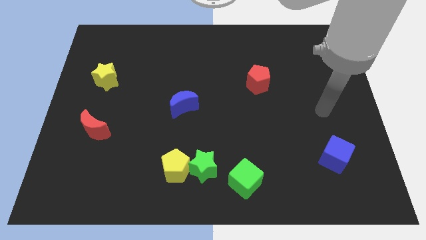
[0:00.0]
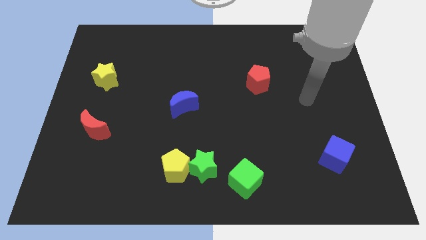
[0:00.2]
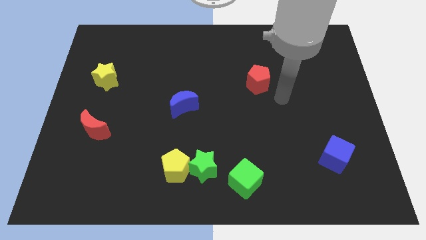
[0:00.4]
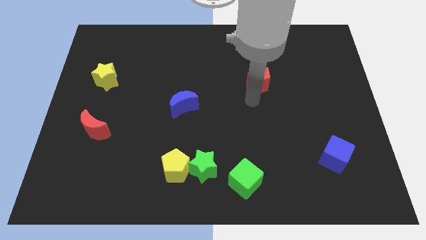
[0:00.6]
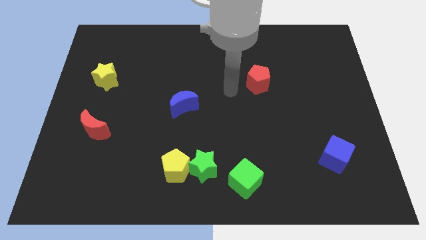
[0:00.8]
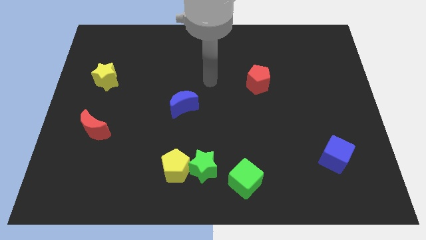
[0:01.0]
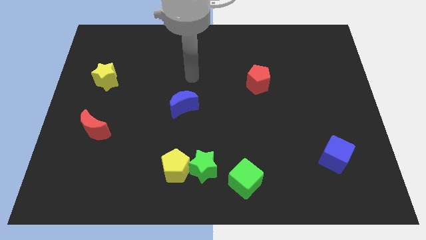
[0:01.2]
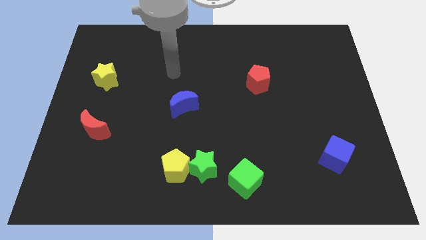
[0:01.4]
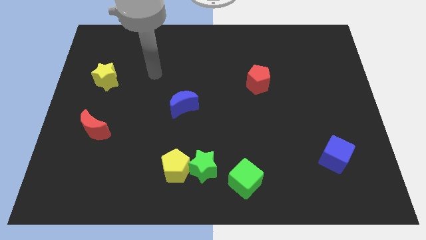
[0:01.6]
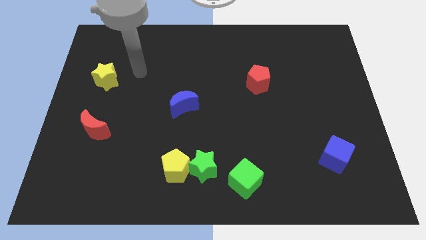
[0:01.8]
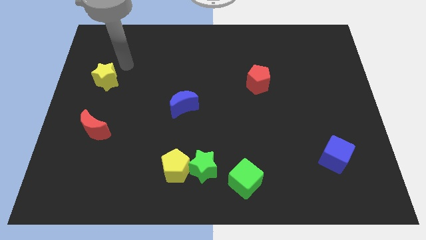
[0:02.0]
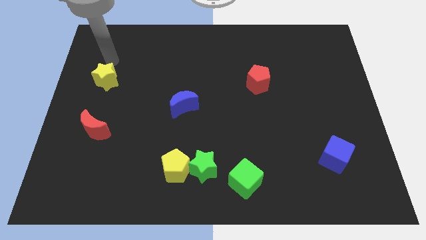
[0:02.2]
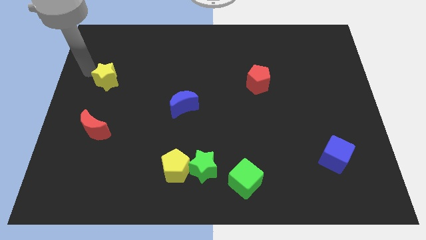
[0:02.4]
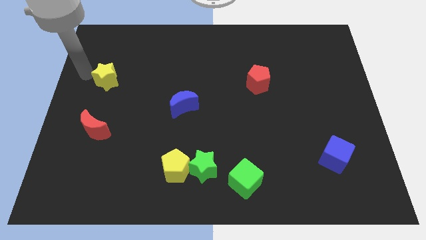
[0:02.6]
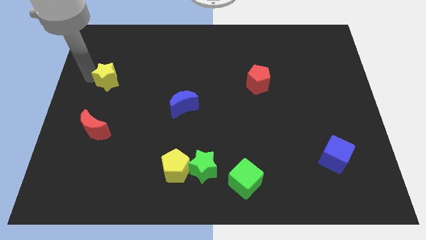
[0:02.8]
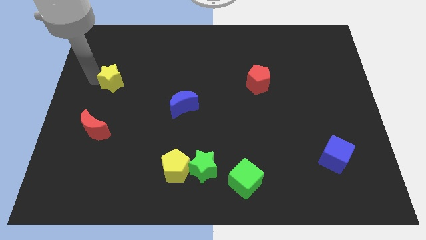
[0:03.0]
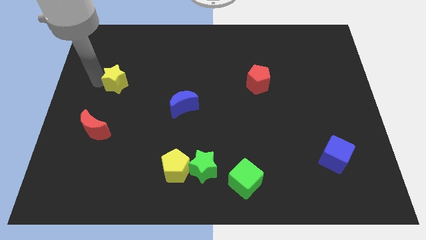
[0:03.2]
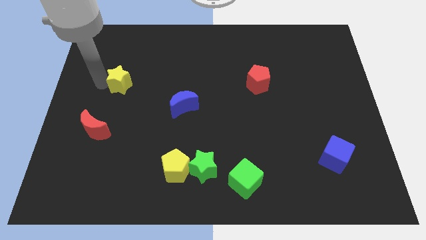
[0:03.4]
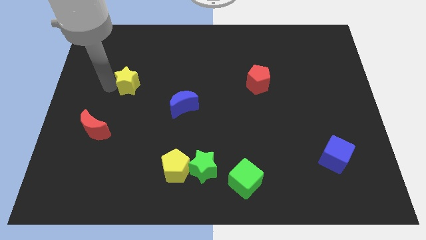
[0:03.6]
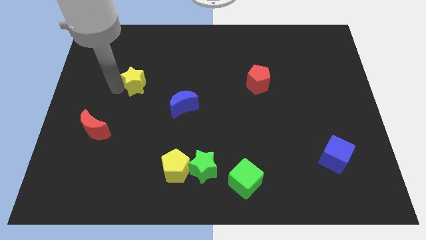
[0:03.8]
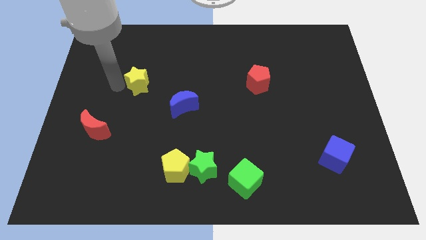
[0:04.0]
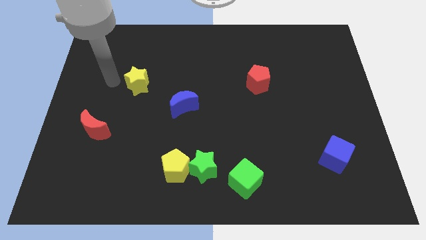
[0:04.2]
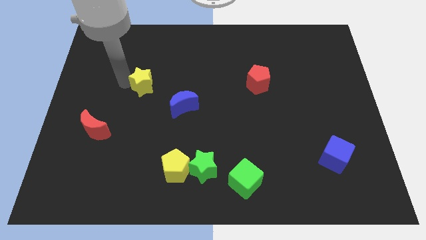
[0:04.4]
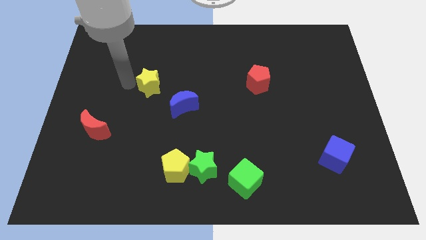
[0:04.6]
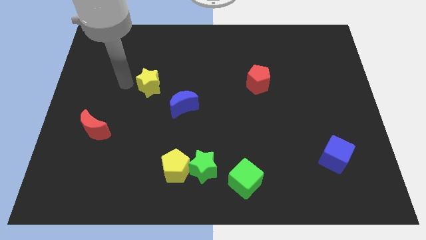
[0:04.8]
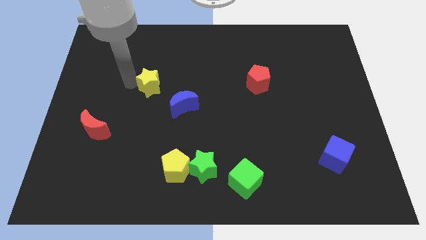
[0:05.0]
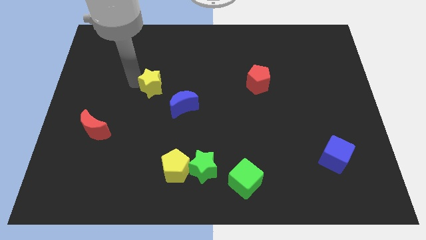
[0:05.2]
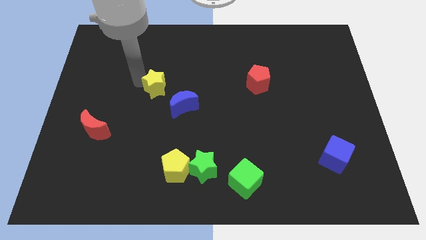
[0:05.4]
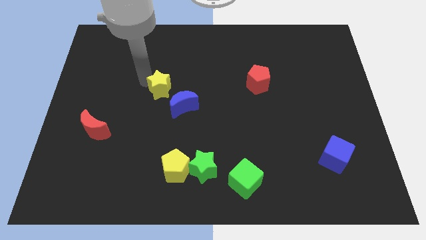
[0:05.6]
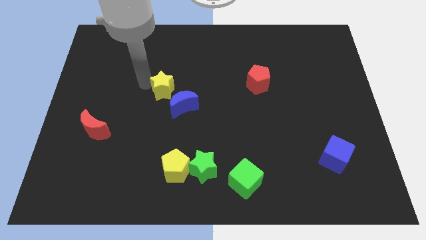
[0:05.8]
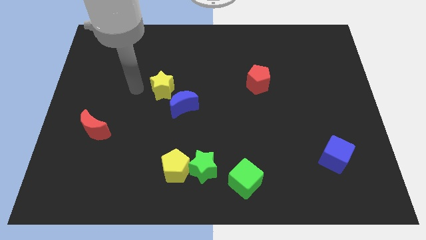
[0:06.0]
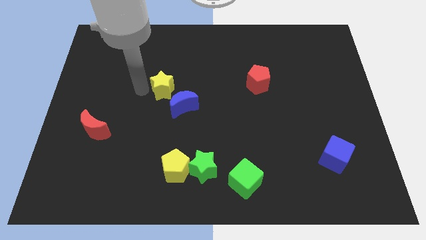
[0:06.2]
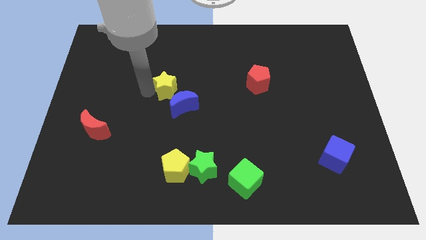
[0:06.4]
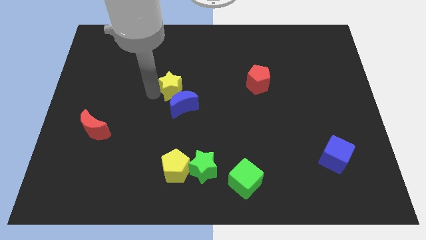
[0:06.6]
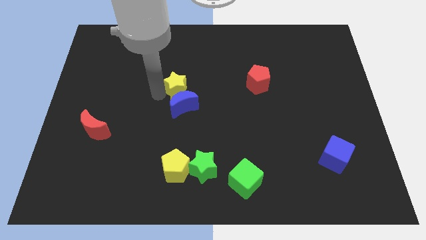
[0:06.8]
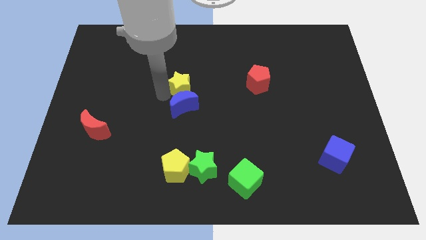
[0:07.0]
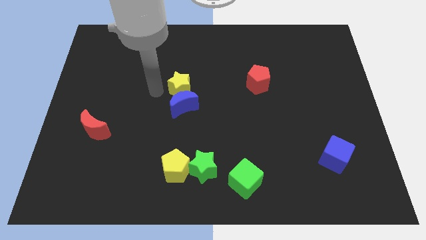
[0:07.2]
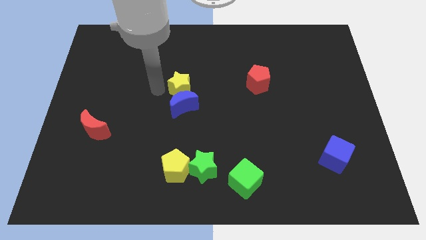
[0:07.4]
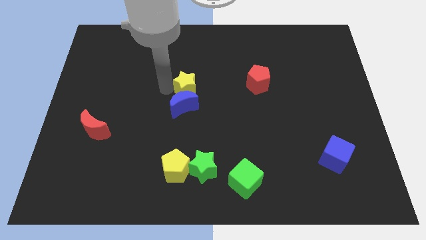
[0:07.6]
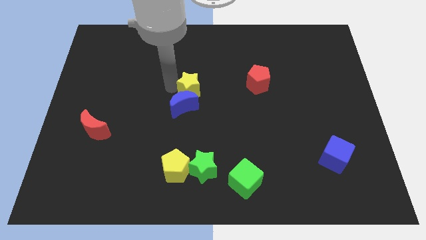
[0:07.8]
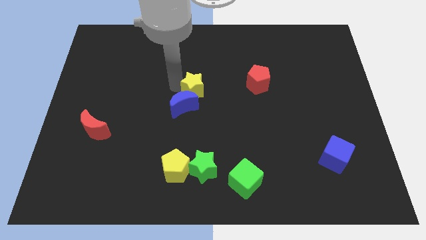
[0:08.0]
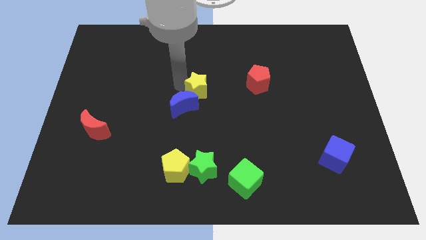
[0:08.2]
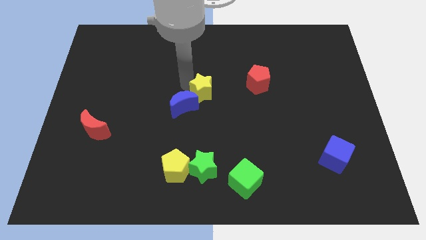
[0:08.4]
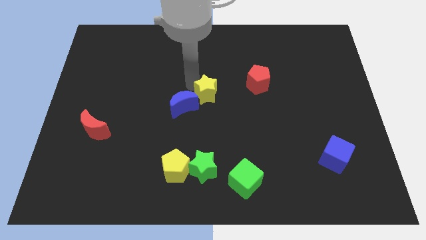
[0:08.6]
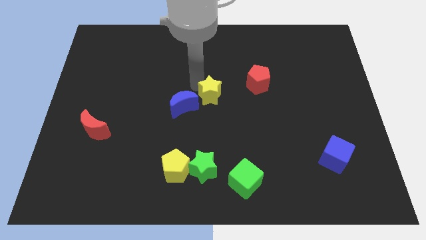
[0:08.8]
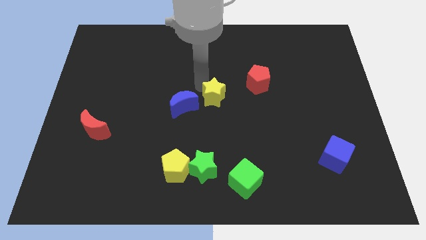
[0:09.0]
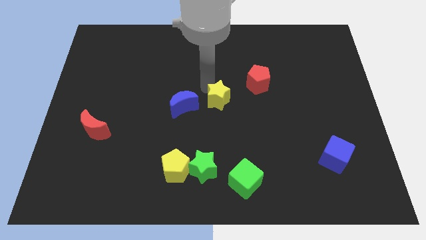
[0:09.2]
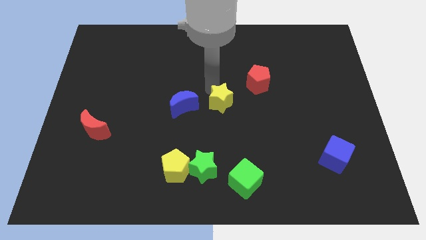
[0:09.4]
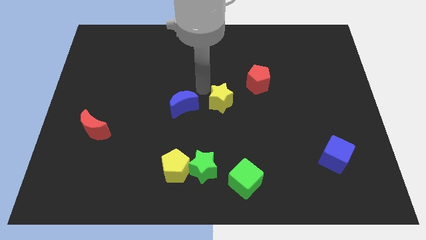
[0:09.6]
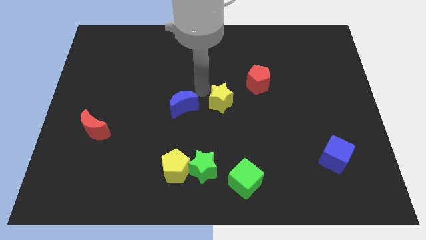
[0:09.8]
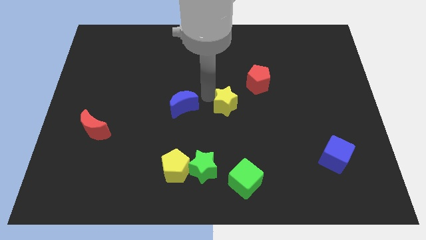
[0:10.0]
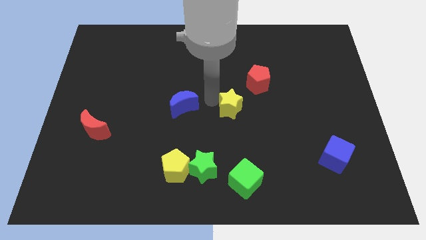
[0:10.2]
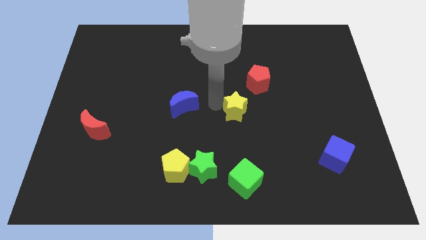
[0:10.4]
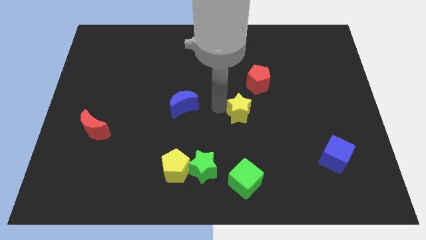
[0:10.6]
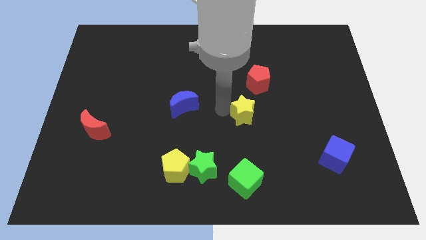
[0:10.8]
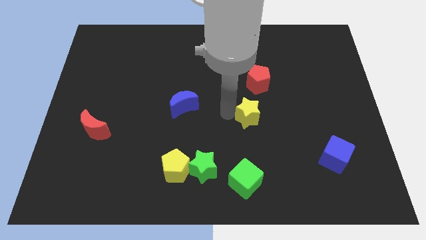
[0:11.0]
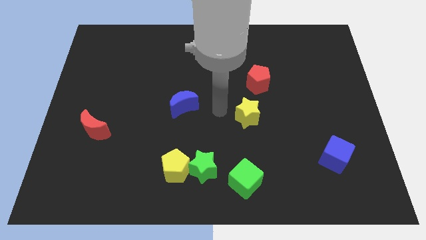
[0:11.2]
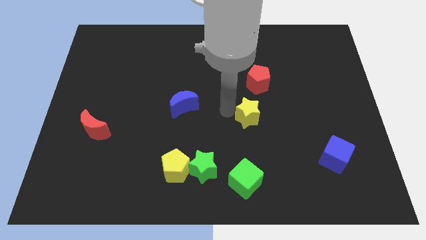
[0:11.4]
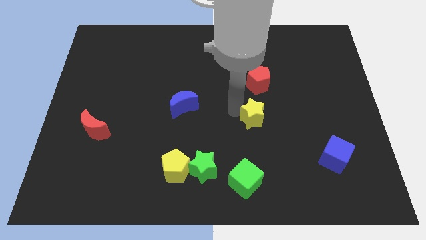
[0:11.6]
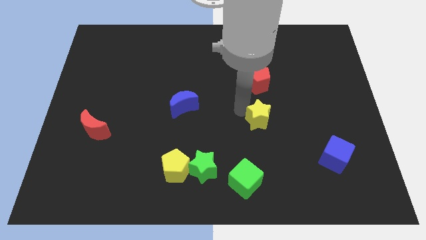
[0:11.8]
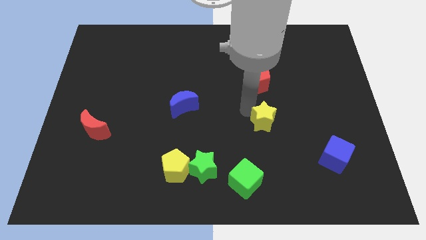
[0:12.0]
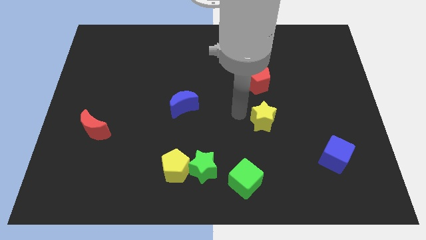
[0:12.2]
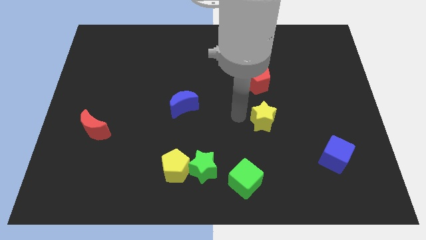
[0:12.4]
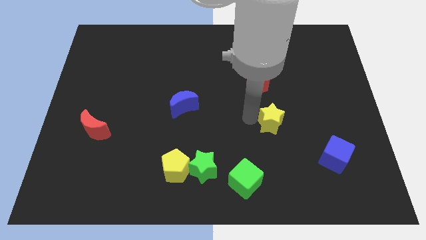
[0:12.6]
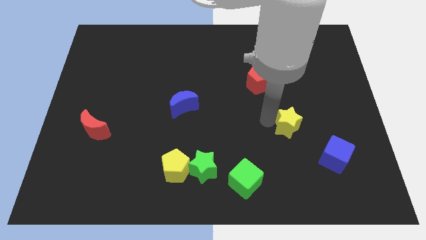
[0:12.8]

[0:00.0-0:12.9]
put the yellow star to the top left of the blue cube

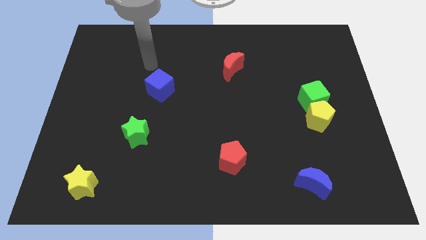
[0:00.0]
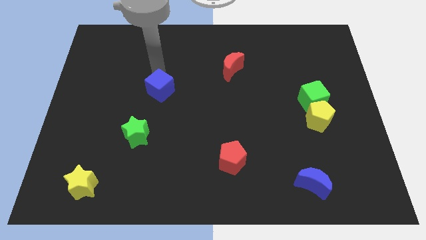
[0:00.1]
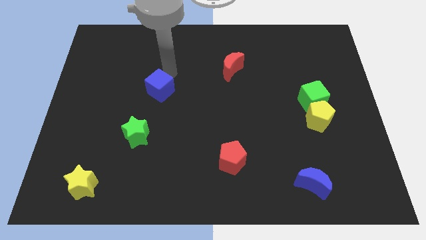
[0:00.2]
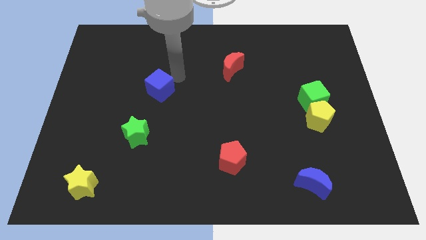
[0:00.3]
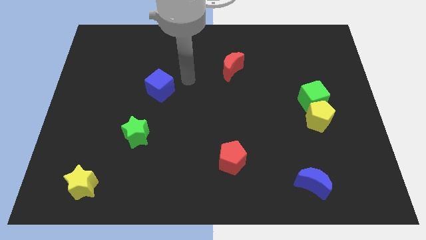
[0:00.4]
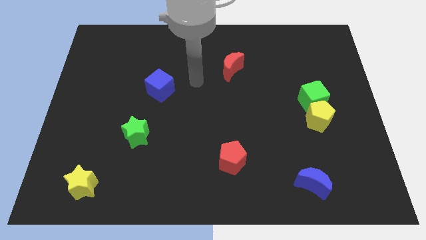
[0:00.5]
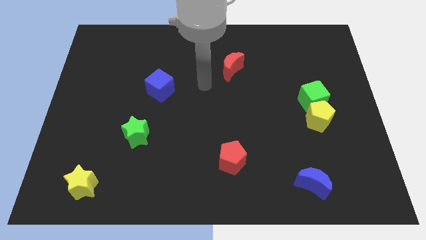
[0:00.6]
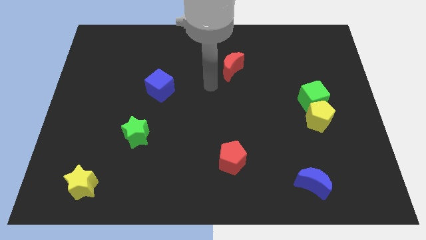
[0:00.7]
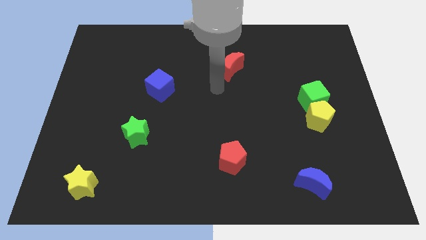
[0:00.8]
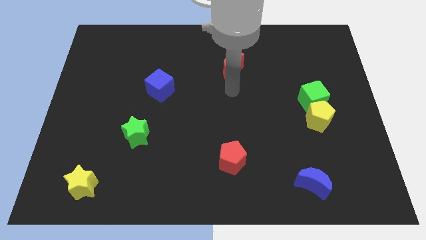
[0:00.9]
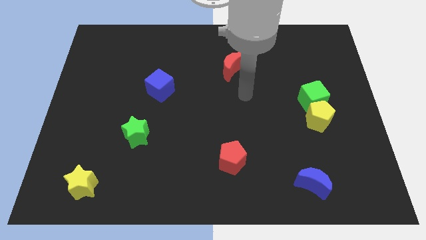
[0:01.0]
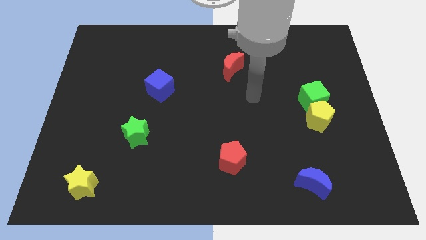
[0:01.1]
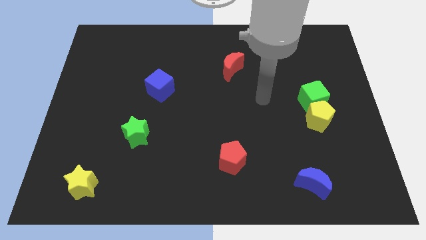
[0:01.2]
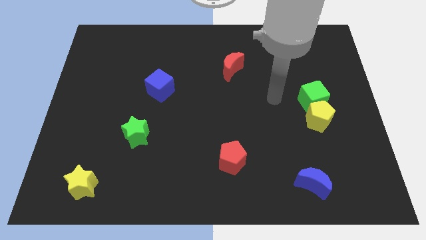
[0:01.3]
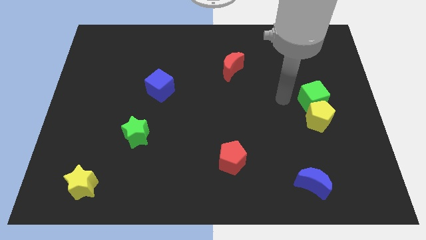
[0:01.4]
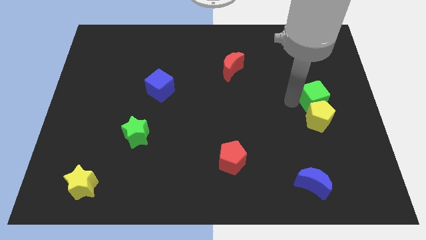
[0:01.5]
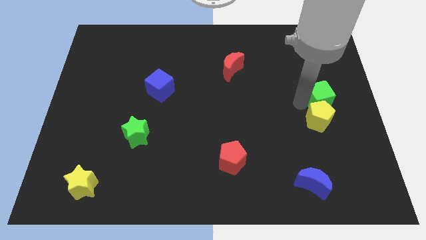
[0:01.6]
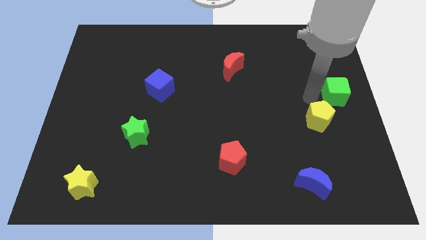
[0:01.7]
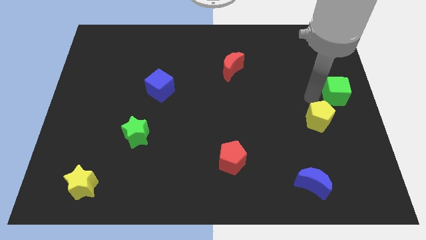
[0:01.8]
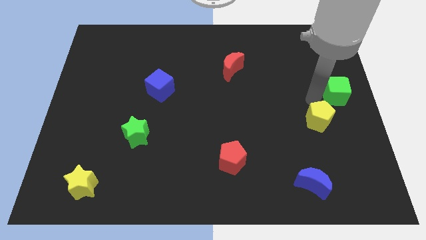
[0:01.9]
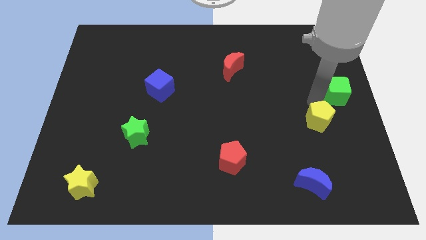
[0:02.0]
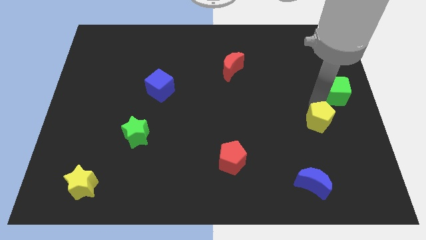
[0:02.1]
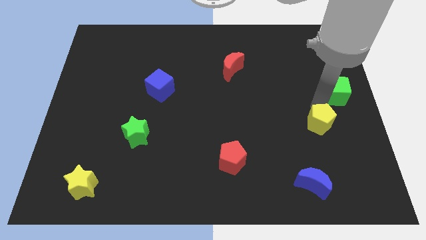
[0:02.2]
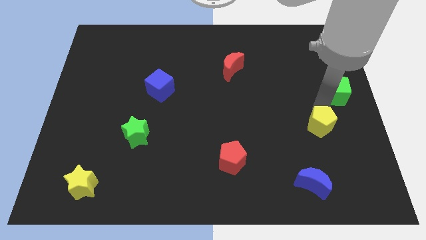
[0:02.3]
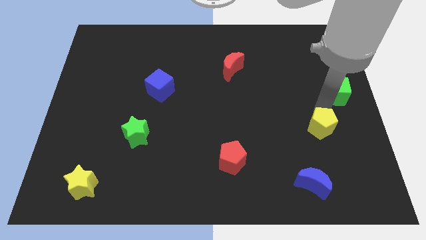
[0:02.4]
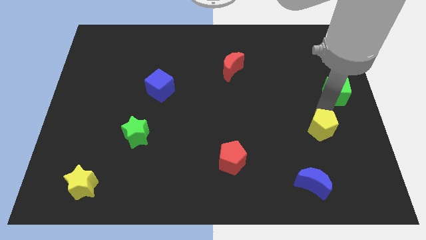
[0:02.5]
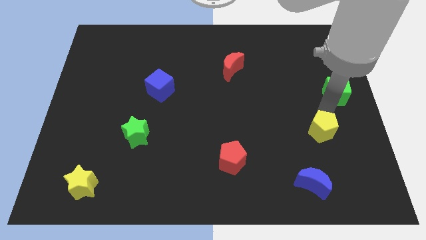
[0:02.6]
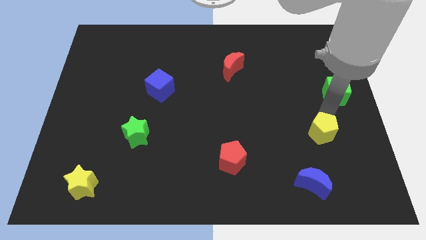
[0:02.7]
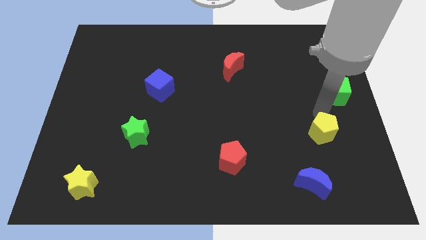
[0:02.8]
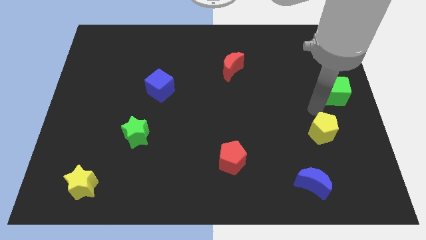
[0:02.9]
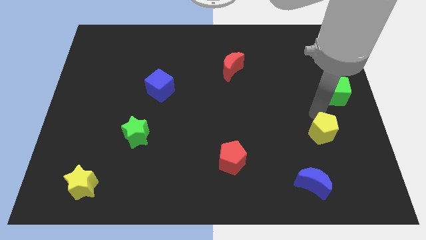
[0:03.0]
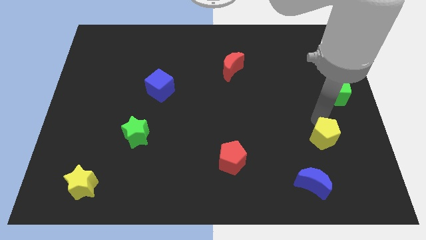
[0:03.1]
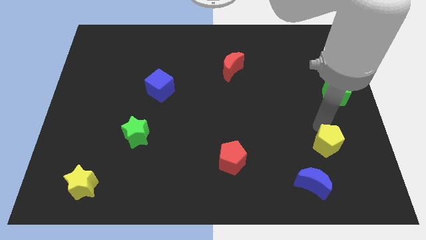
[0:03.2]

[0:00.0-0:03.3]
slide the yellow pentagon to the top right side of the blue moon
